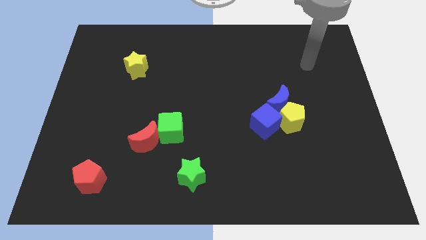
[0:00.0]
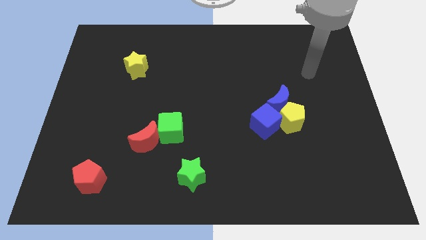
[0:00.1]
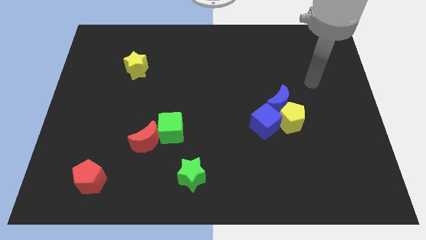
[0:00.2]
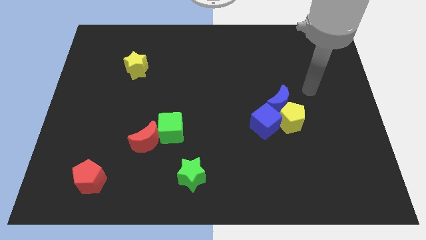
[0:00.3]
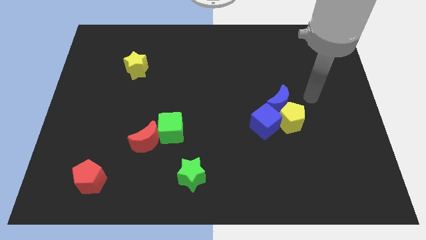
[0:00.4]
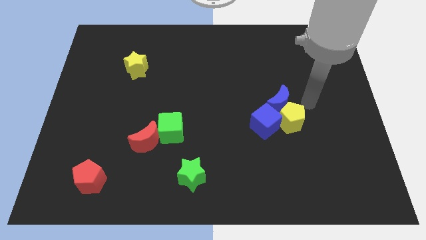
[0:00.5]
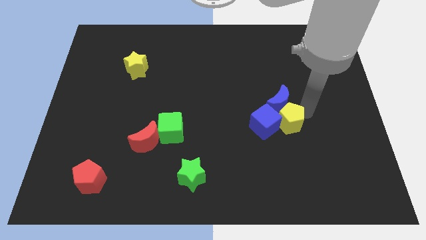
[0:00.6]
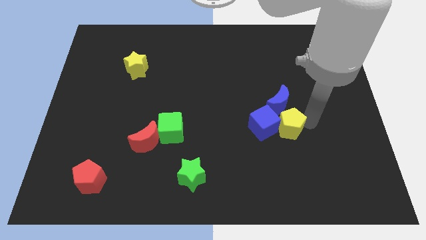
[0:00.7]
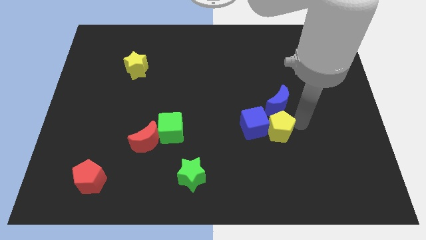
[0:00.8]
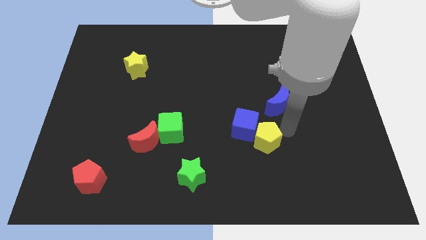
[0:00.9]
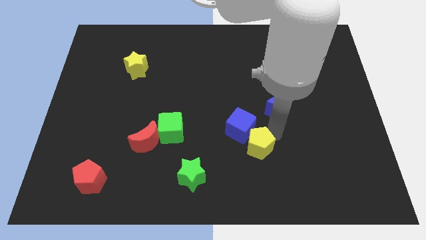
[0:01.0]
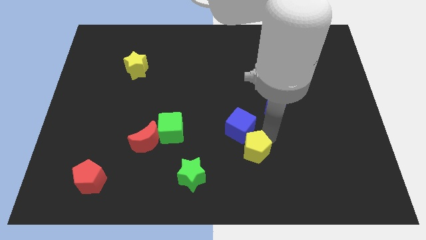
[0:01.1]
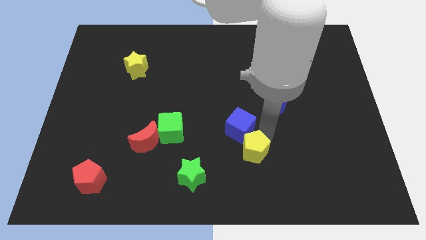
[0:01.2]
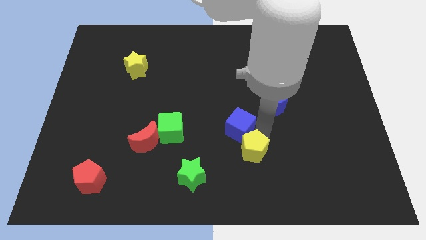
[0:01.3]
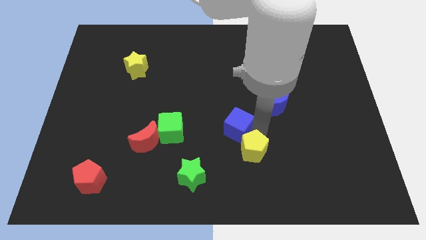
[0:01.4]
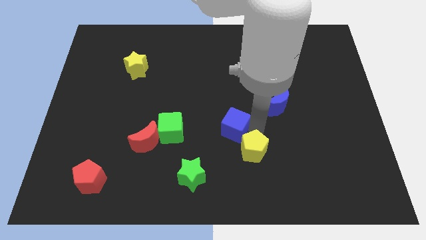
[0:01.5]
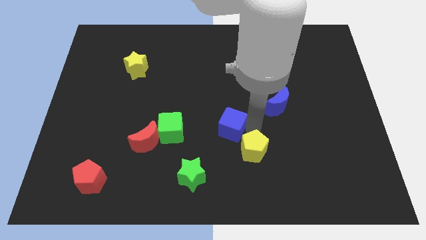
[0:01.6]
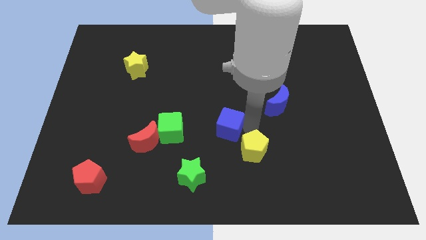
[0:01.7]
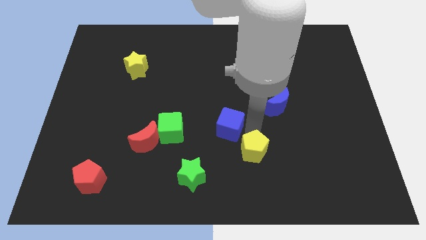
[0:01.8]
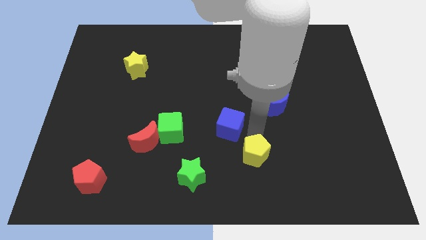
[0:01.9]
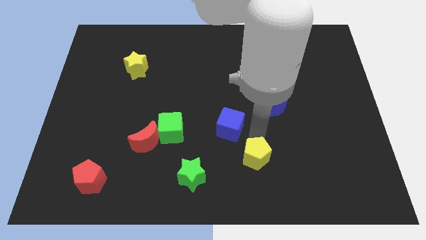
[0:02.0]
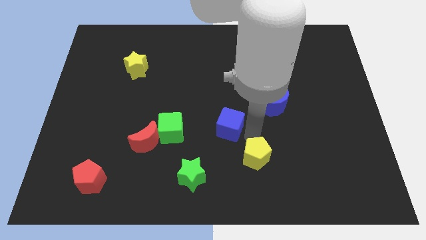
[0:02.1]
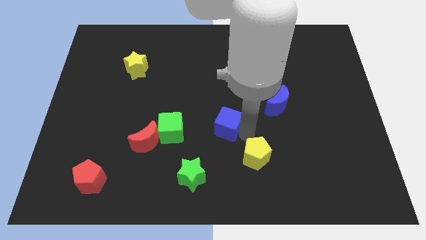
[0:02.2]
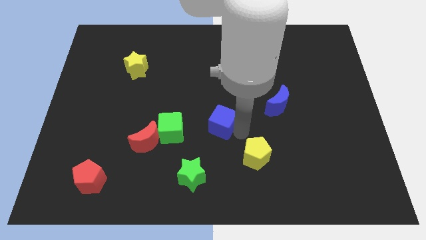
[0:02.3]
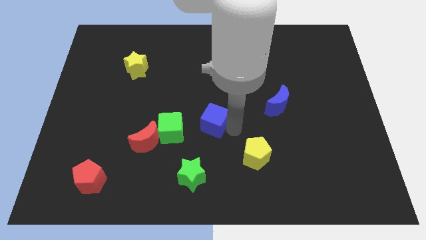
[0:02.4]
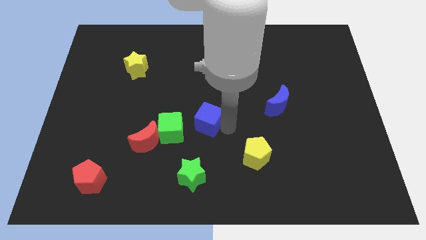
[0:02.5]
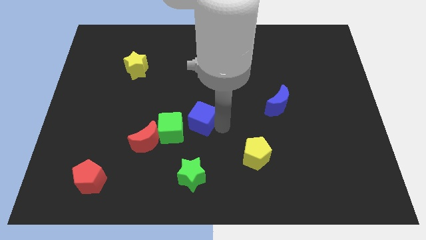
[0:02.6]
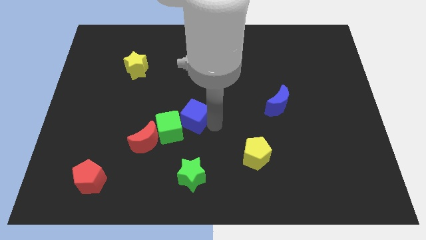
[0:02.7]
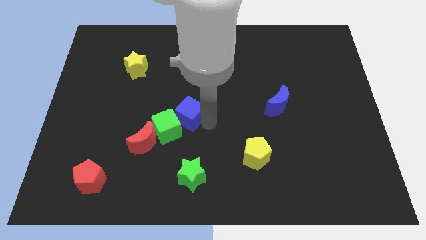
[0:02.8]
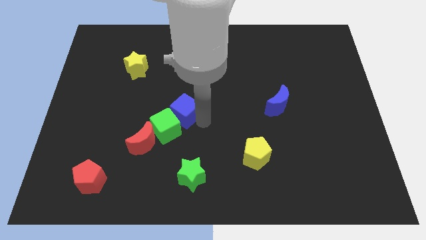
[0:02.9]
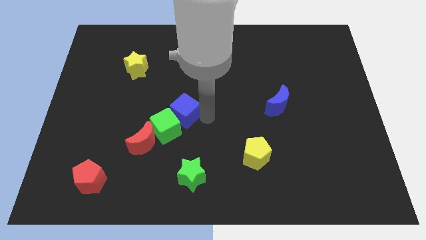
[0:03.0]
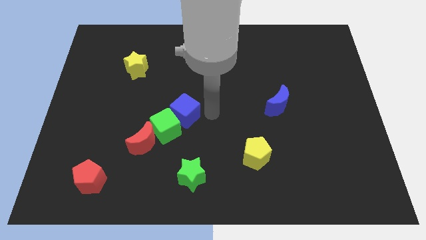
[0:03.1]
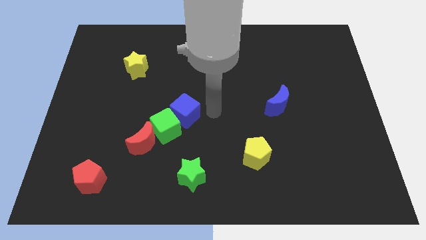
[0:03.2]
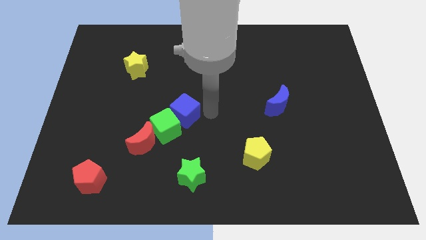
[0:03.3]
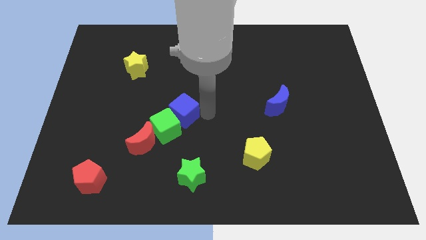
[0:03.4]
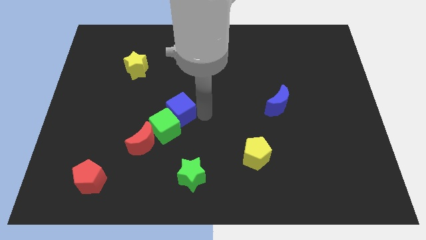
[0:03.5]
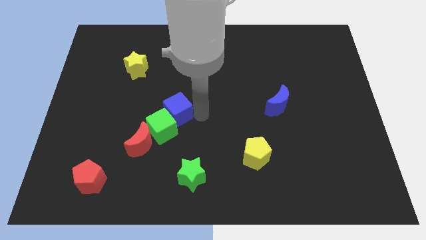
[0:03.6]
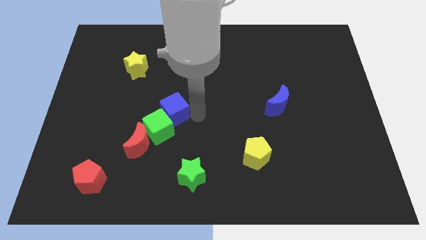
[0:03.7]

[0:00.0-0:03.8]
move the blue cube left

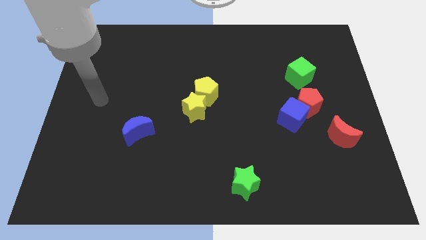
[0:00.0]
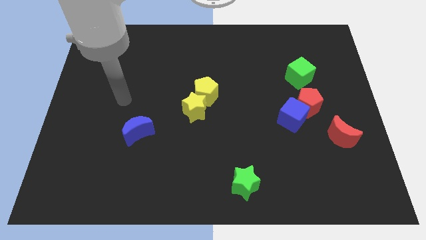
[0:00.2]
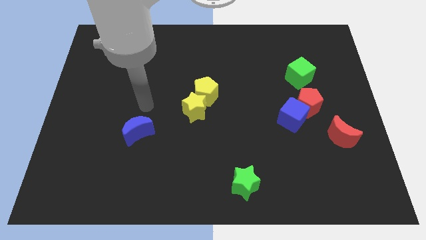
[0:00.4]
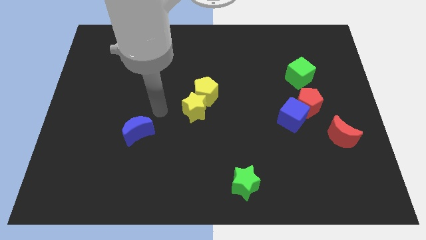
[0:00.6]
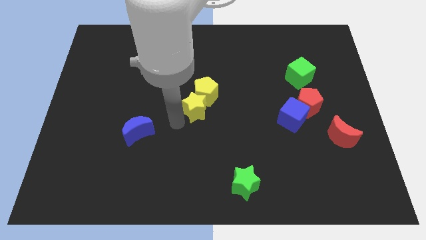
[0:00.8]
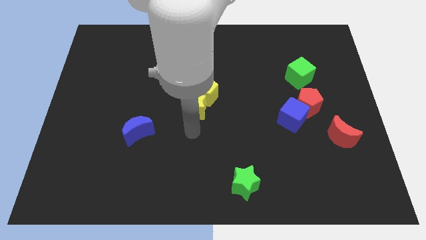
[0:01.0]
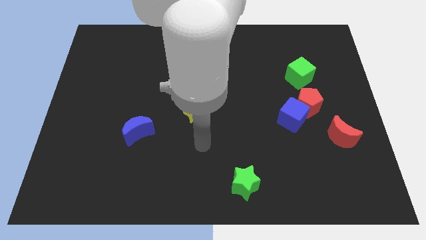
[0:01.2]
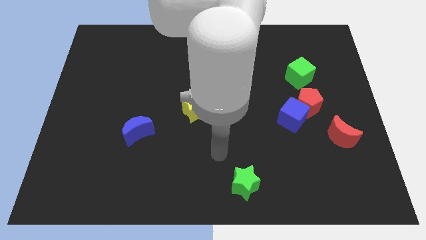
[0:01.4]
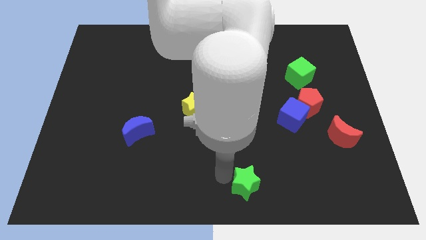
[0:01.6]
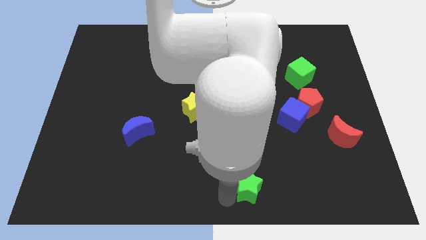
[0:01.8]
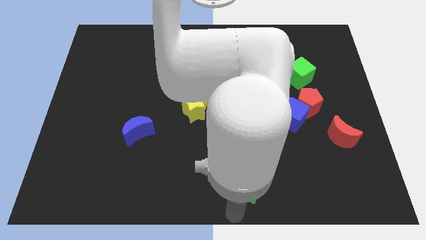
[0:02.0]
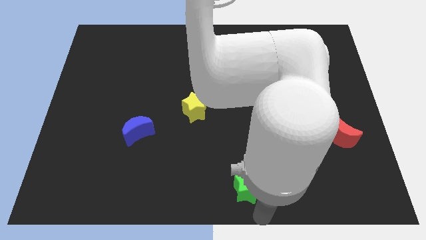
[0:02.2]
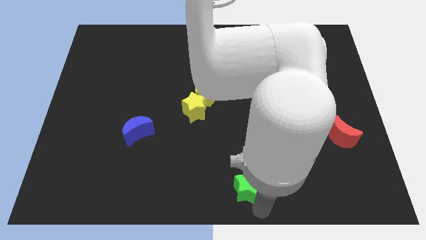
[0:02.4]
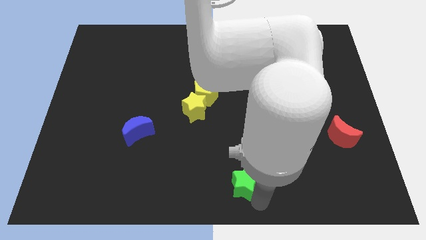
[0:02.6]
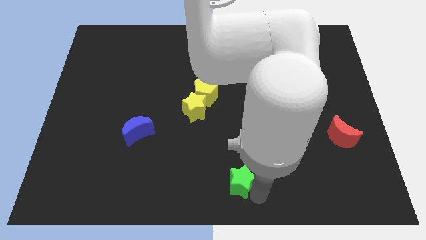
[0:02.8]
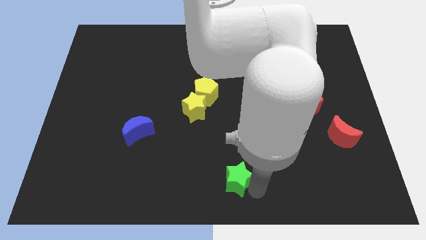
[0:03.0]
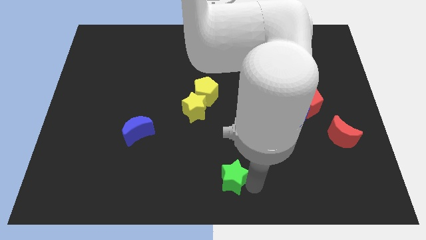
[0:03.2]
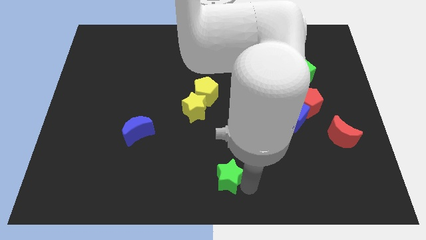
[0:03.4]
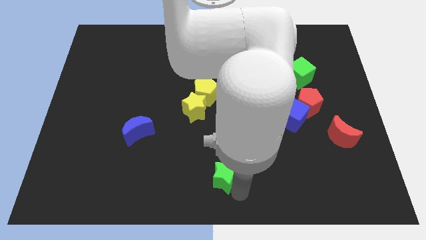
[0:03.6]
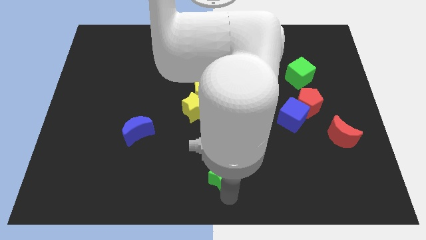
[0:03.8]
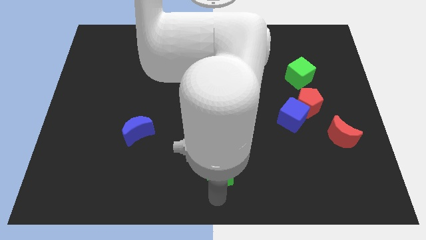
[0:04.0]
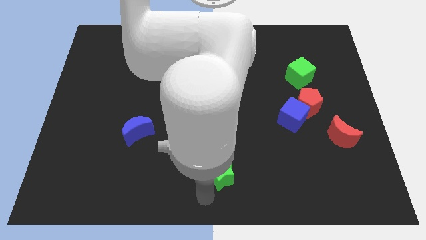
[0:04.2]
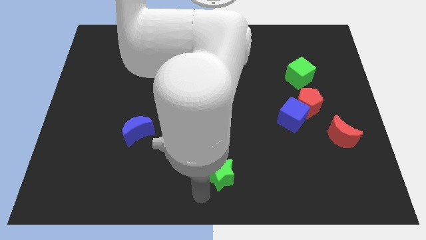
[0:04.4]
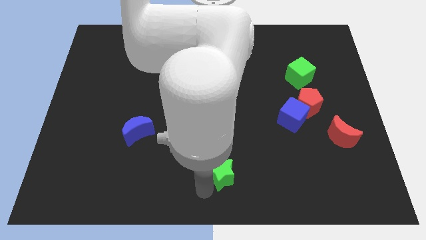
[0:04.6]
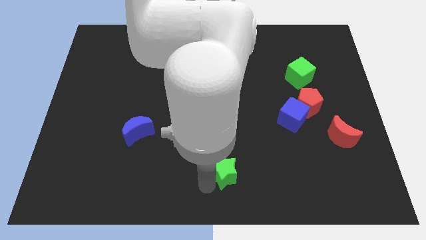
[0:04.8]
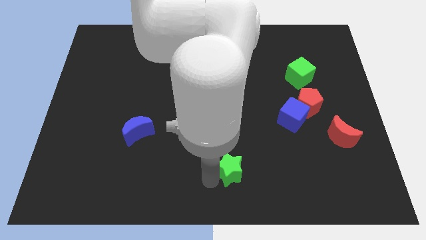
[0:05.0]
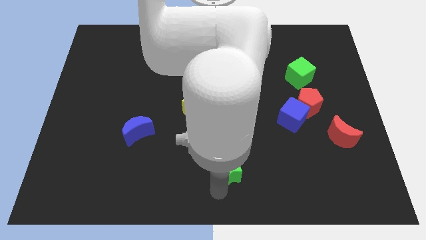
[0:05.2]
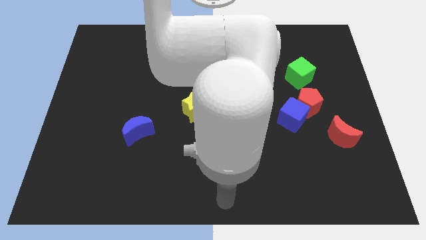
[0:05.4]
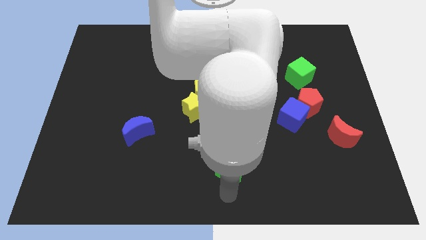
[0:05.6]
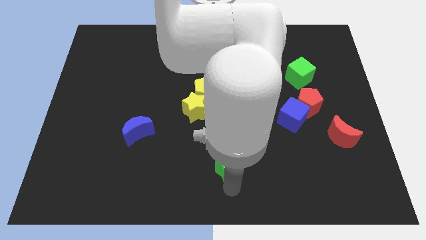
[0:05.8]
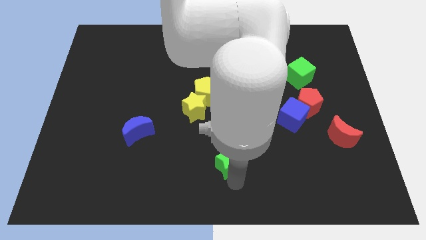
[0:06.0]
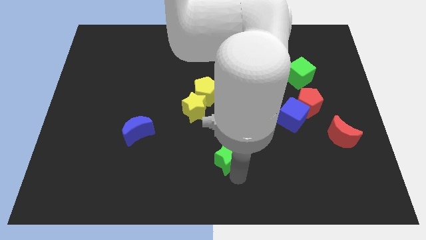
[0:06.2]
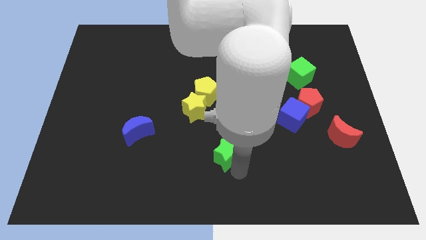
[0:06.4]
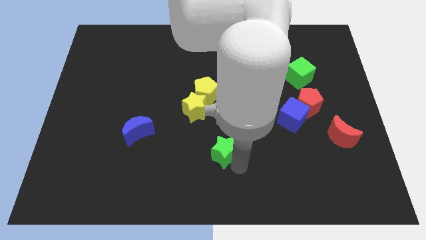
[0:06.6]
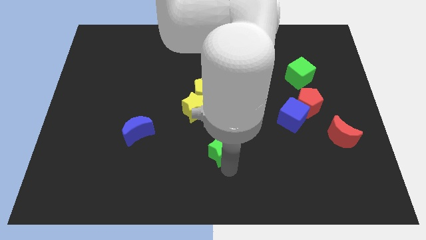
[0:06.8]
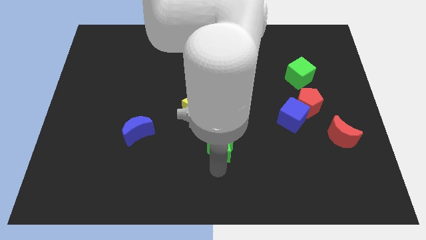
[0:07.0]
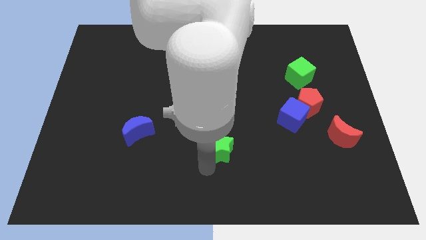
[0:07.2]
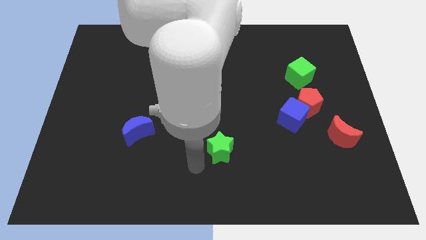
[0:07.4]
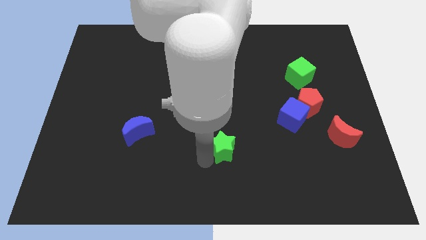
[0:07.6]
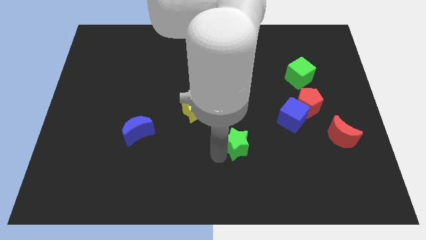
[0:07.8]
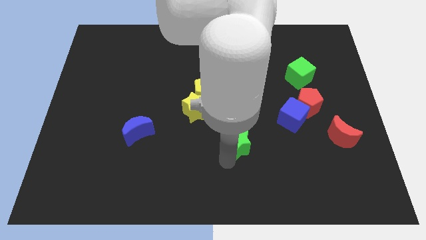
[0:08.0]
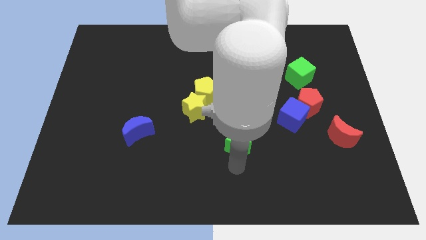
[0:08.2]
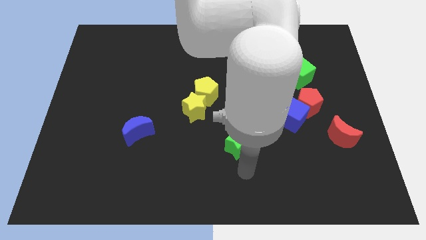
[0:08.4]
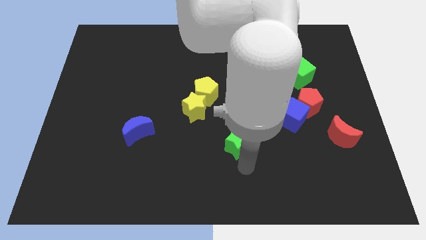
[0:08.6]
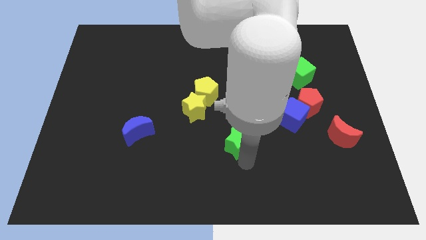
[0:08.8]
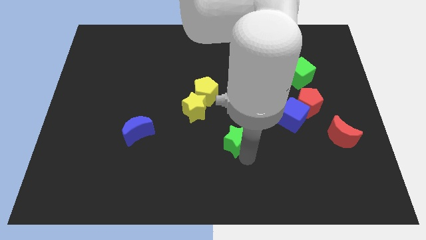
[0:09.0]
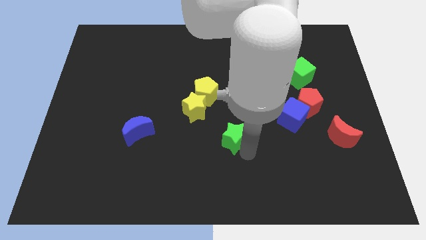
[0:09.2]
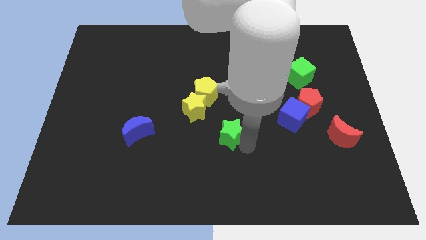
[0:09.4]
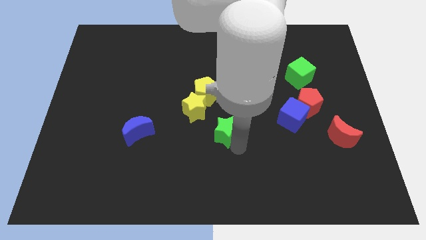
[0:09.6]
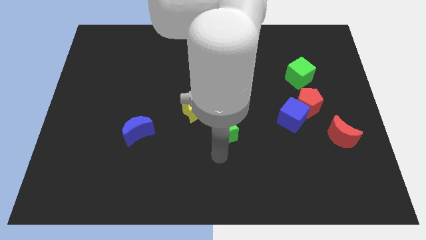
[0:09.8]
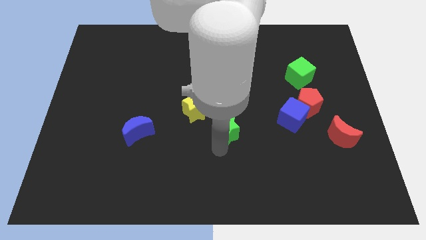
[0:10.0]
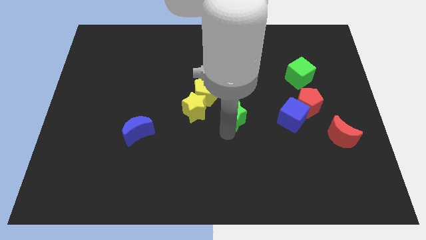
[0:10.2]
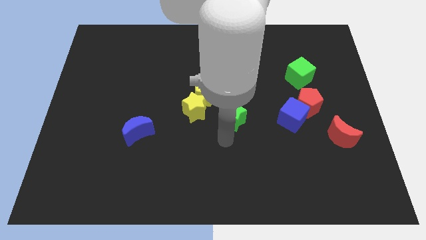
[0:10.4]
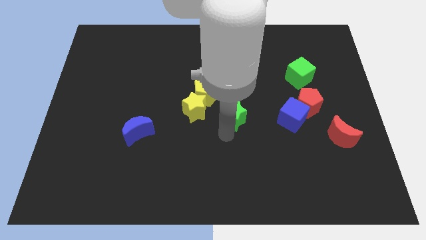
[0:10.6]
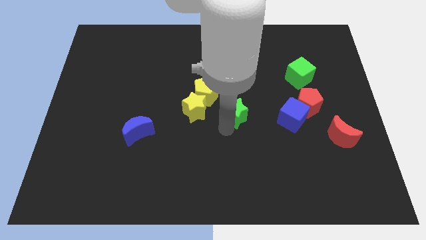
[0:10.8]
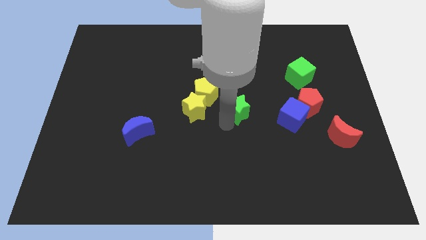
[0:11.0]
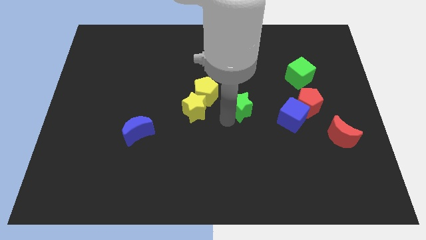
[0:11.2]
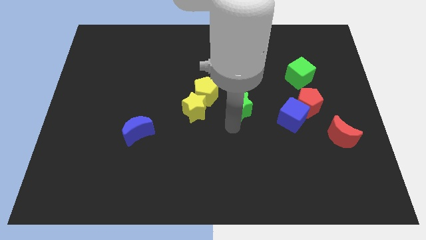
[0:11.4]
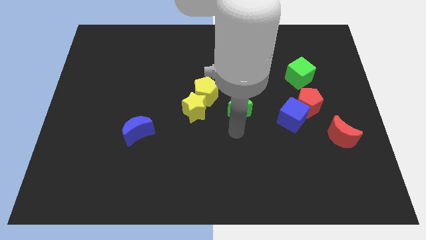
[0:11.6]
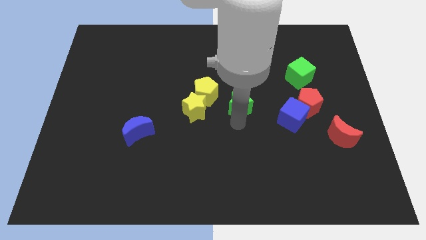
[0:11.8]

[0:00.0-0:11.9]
slide the green star upwards
